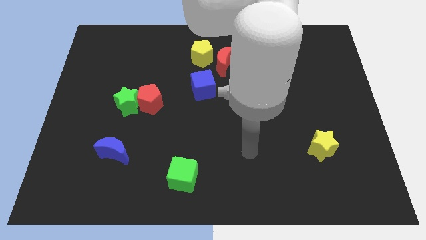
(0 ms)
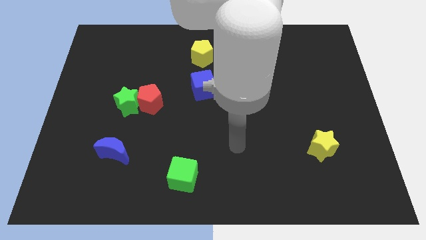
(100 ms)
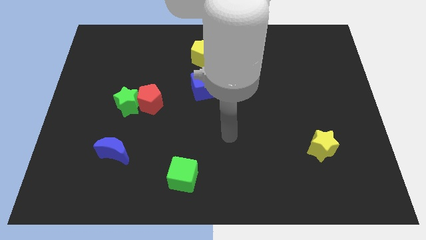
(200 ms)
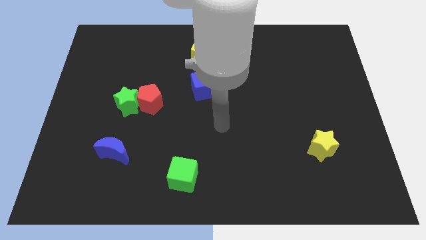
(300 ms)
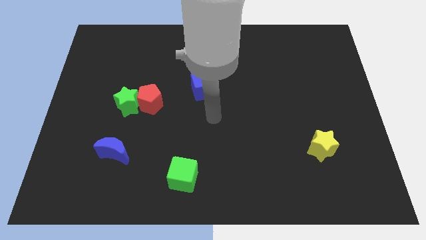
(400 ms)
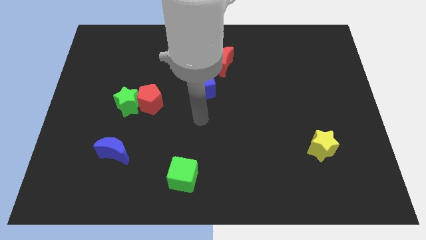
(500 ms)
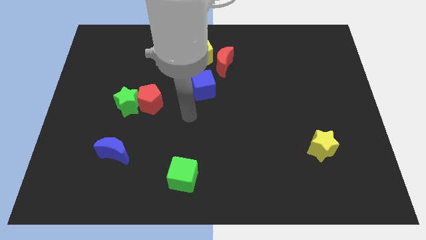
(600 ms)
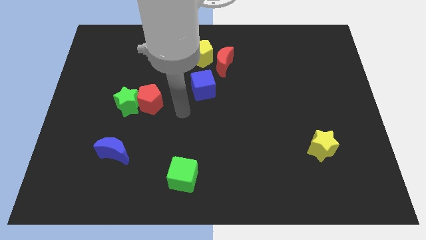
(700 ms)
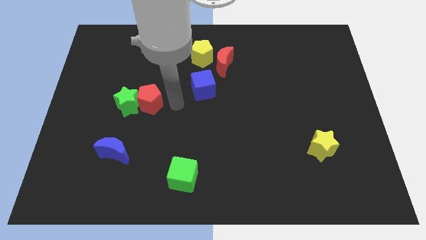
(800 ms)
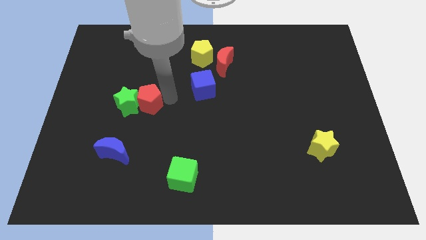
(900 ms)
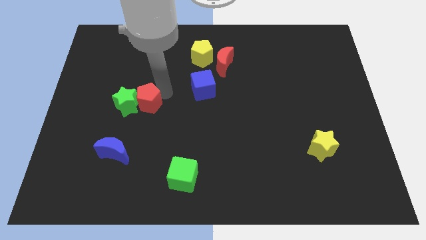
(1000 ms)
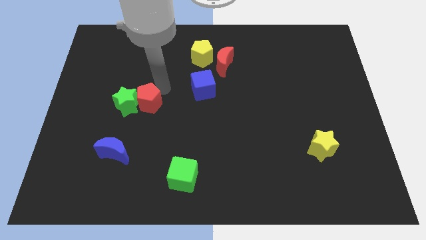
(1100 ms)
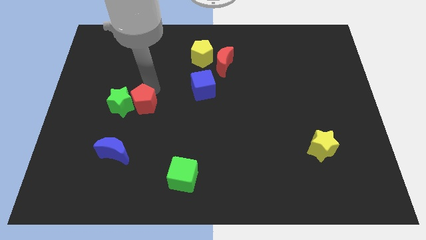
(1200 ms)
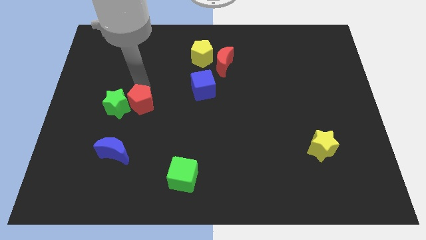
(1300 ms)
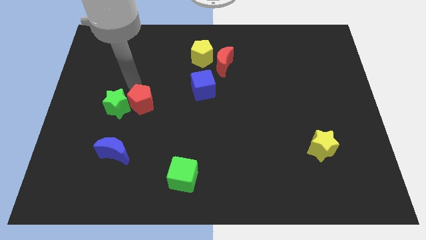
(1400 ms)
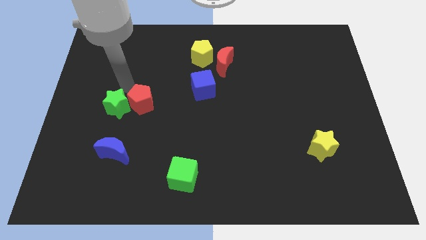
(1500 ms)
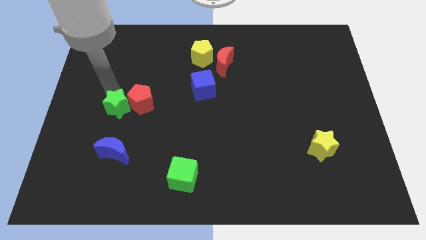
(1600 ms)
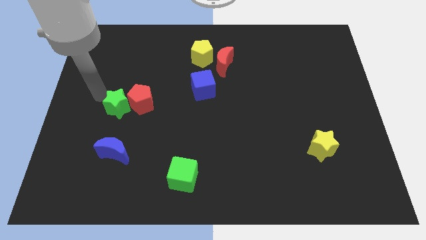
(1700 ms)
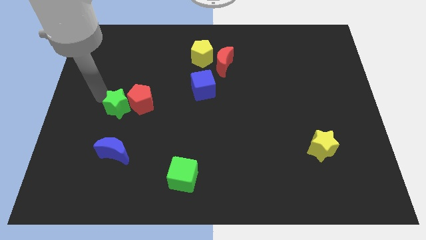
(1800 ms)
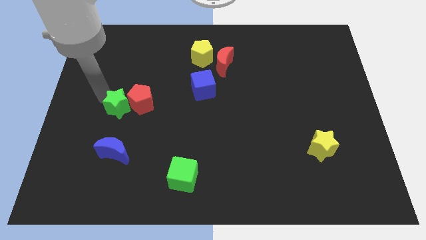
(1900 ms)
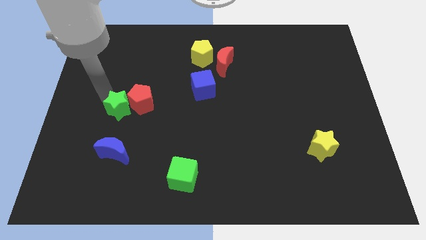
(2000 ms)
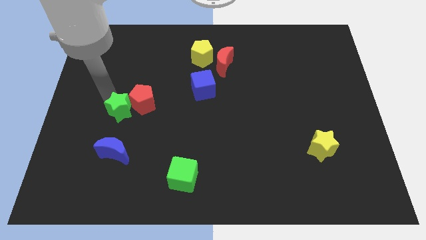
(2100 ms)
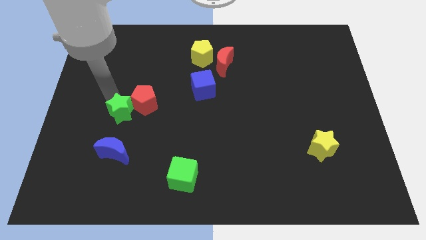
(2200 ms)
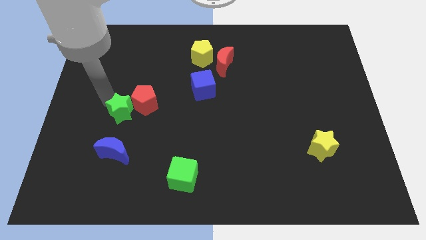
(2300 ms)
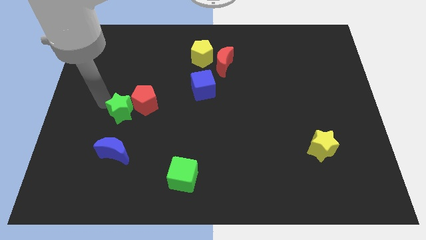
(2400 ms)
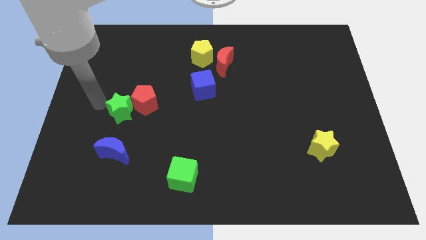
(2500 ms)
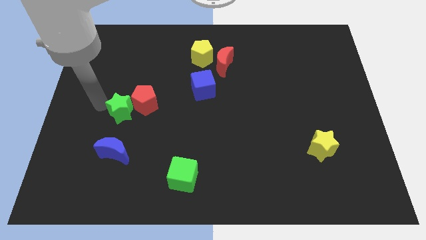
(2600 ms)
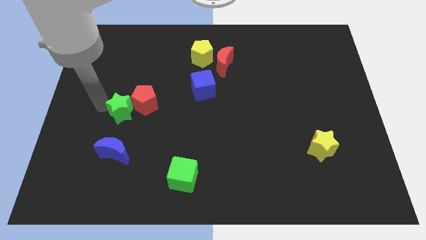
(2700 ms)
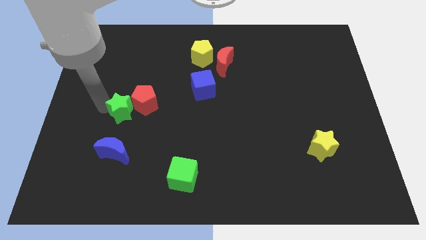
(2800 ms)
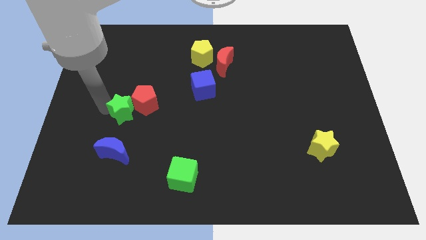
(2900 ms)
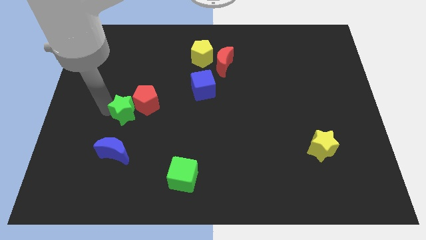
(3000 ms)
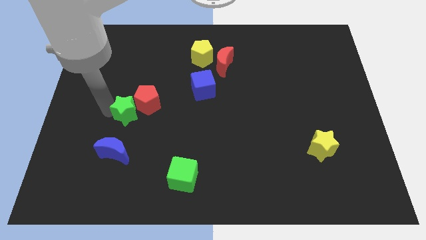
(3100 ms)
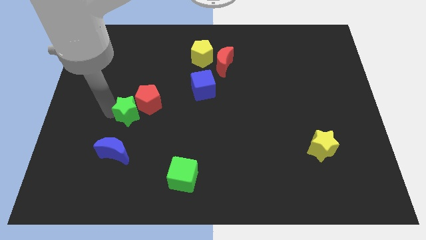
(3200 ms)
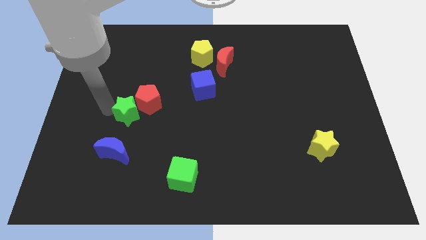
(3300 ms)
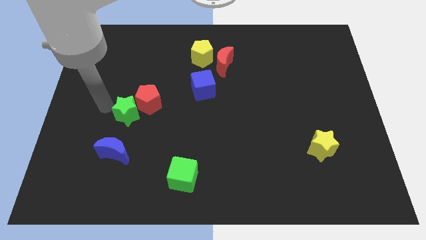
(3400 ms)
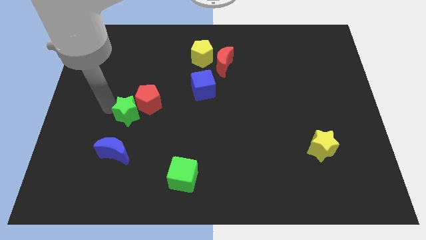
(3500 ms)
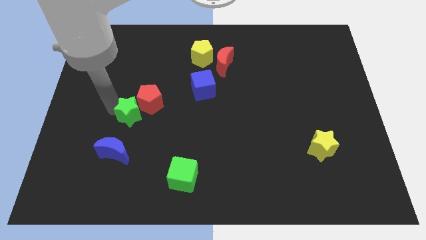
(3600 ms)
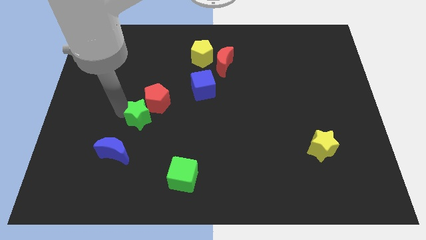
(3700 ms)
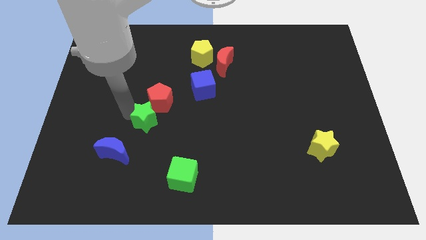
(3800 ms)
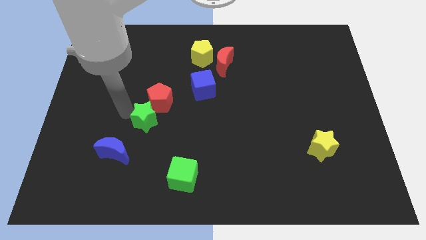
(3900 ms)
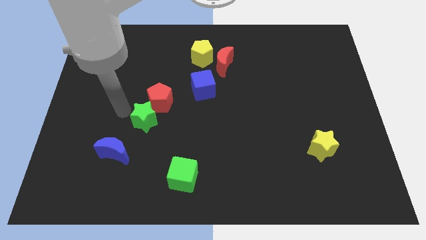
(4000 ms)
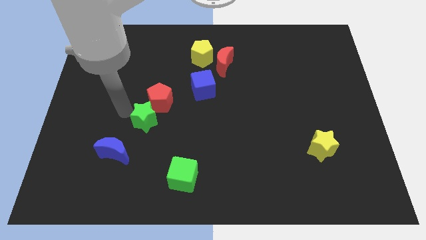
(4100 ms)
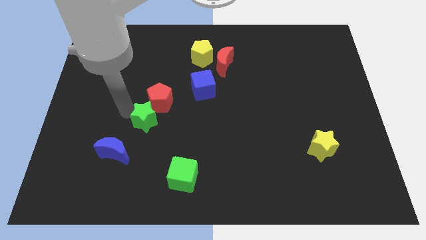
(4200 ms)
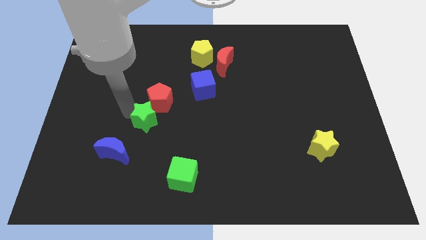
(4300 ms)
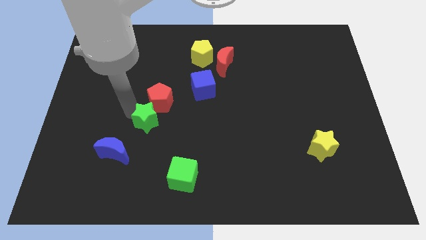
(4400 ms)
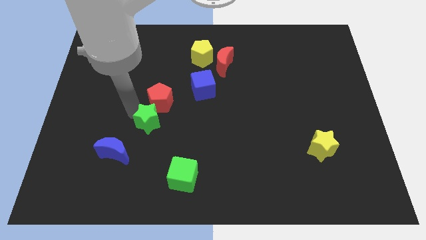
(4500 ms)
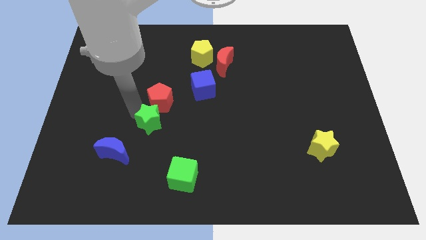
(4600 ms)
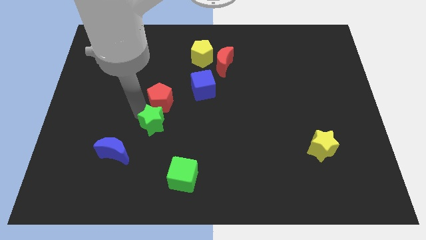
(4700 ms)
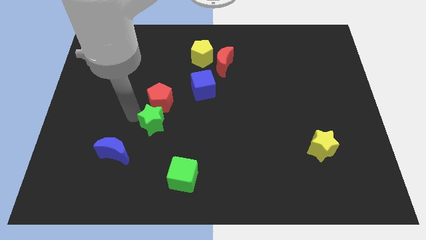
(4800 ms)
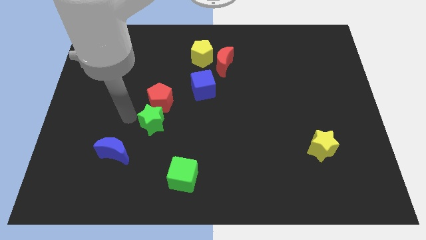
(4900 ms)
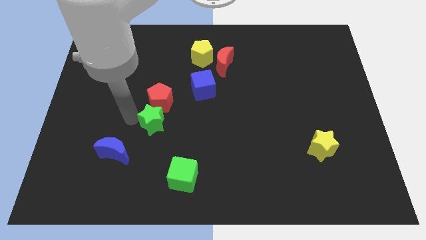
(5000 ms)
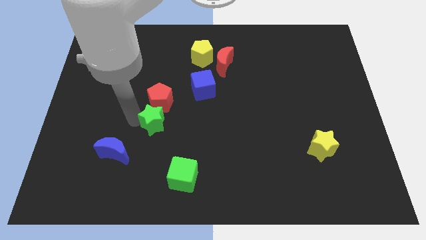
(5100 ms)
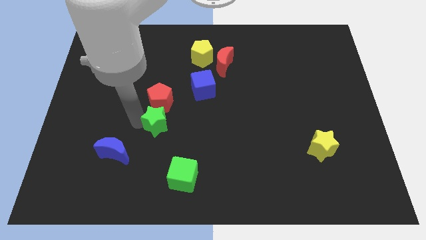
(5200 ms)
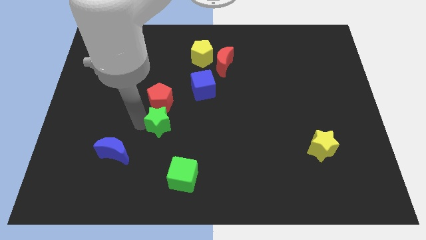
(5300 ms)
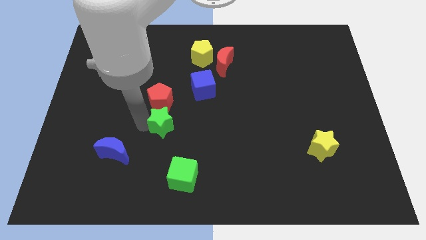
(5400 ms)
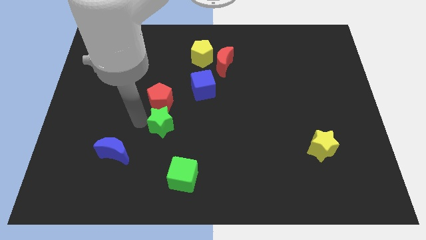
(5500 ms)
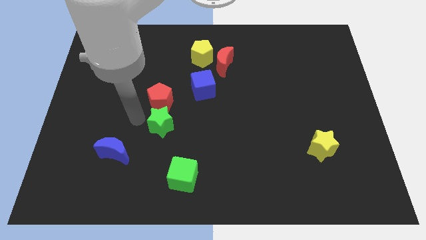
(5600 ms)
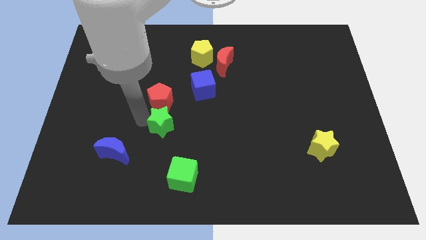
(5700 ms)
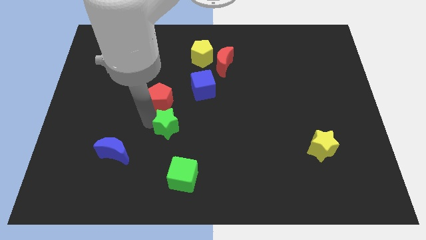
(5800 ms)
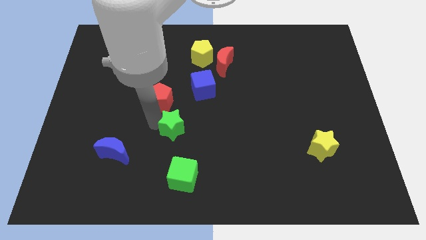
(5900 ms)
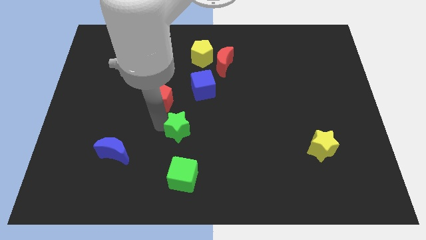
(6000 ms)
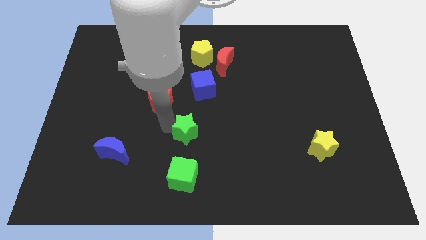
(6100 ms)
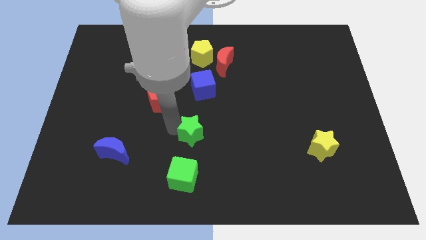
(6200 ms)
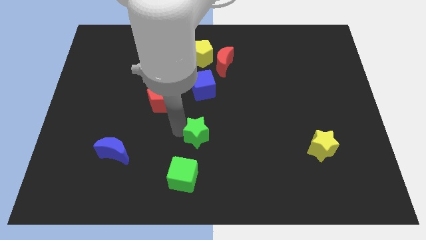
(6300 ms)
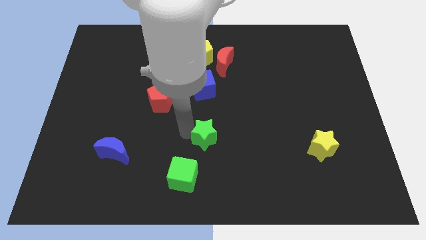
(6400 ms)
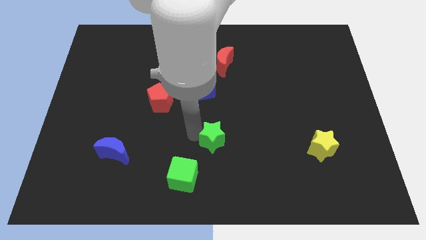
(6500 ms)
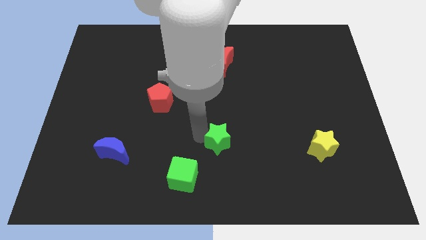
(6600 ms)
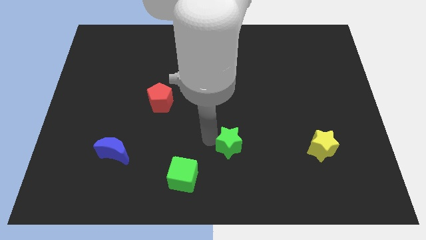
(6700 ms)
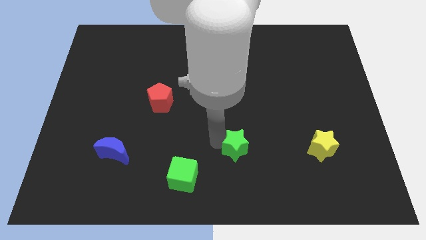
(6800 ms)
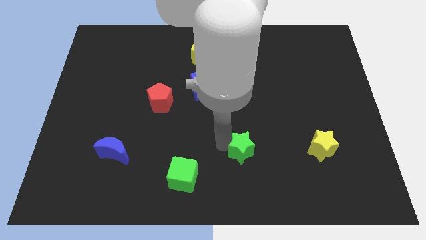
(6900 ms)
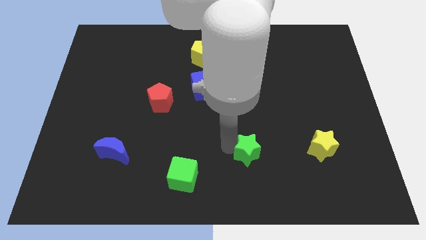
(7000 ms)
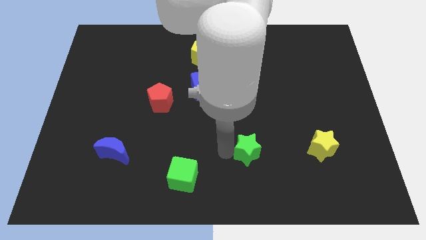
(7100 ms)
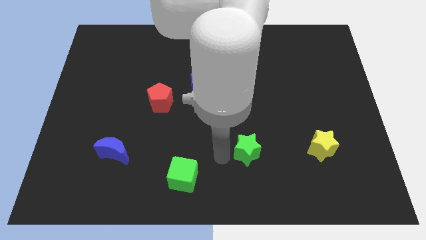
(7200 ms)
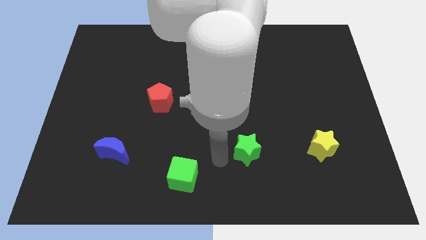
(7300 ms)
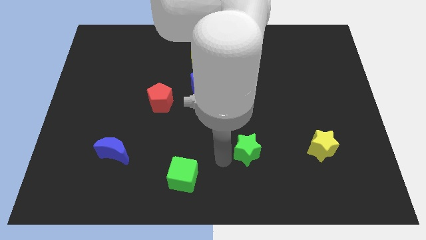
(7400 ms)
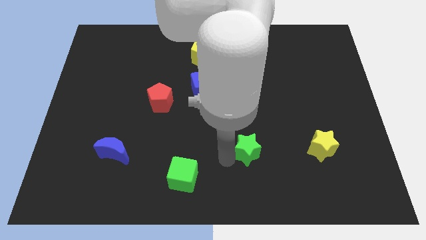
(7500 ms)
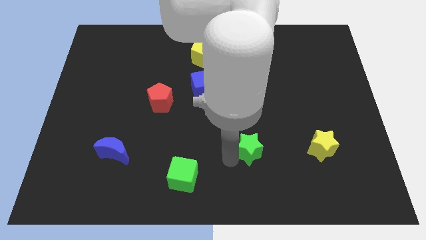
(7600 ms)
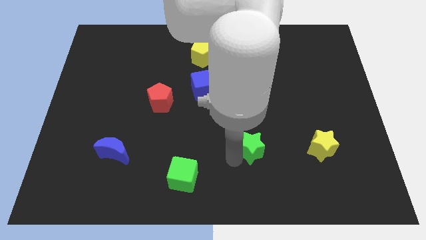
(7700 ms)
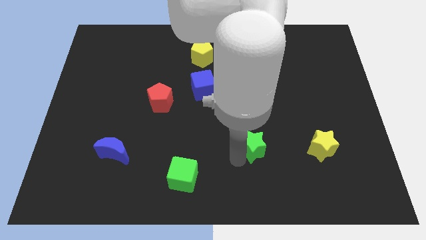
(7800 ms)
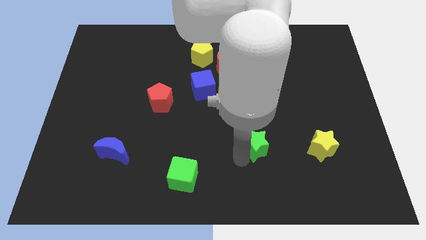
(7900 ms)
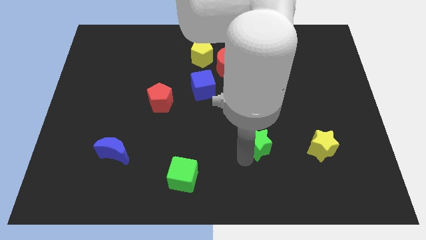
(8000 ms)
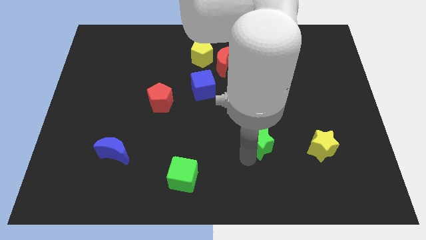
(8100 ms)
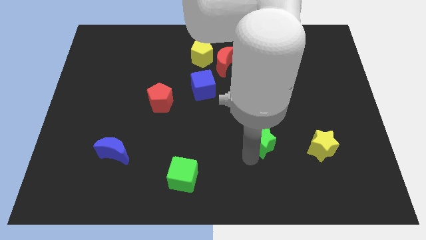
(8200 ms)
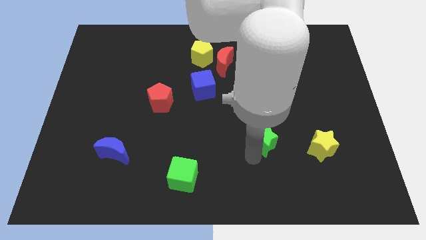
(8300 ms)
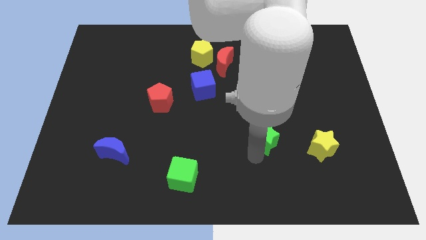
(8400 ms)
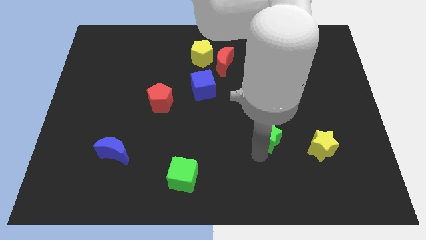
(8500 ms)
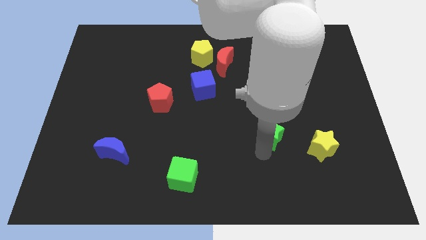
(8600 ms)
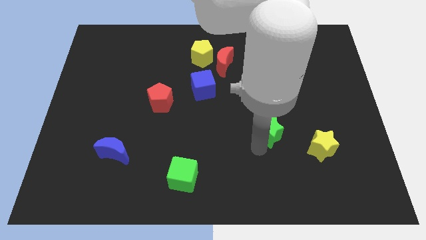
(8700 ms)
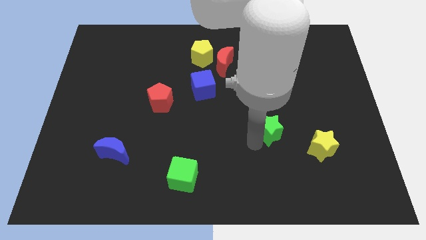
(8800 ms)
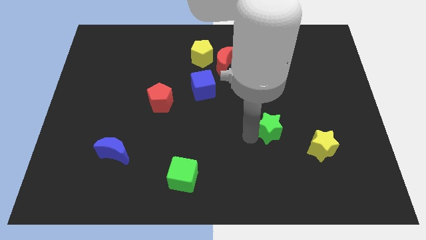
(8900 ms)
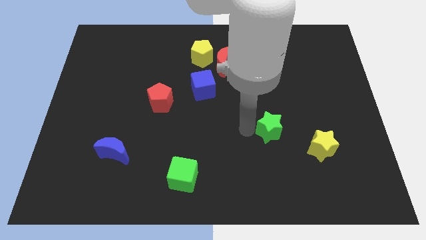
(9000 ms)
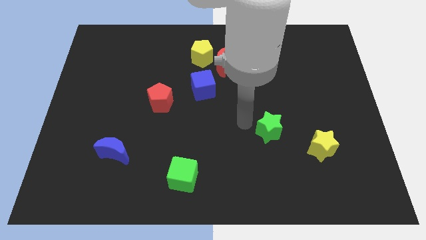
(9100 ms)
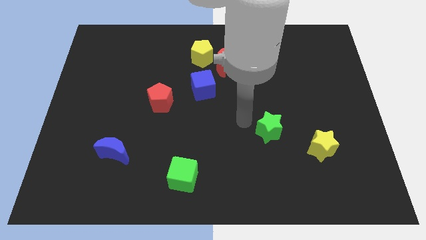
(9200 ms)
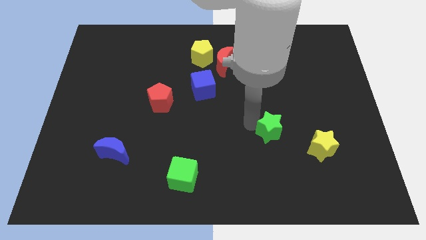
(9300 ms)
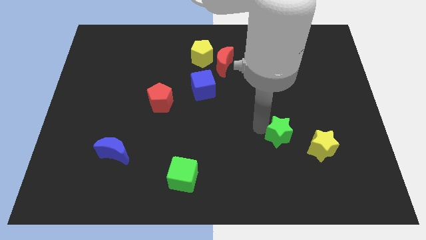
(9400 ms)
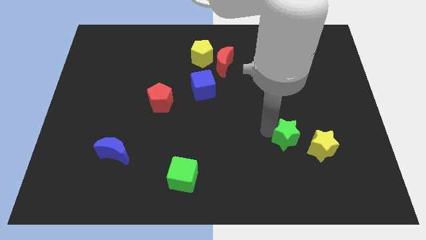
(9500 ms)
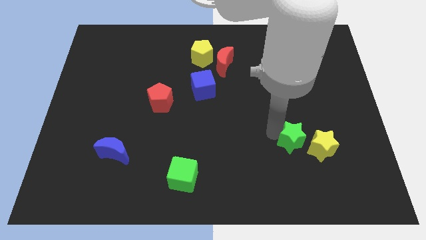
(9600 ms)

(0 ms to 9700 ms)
put the green star towards the yellow star
